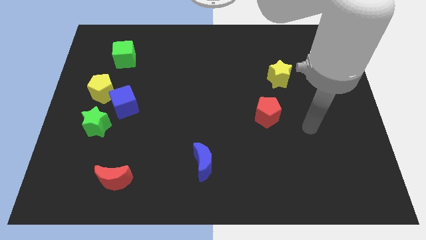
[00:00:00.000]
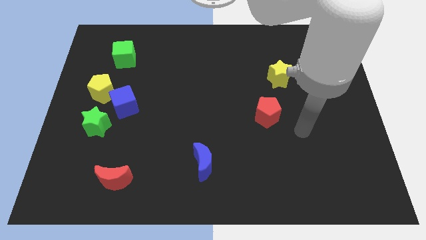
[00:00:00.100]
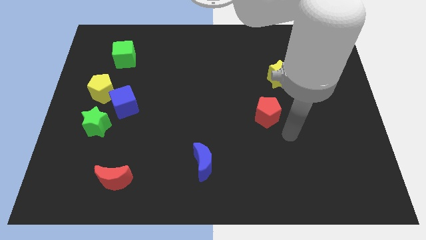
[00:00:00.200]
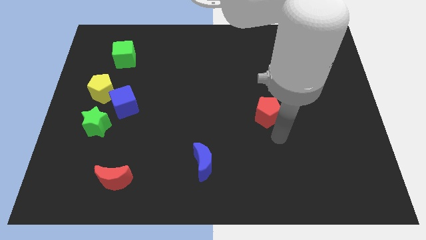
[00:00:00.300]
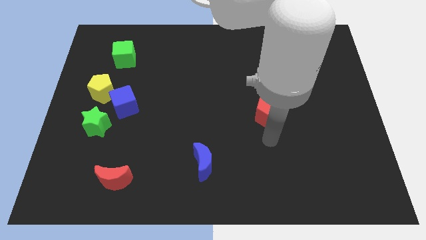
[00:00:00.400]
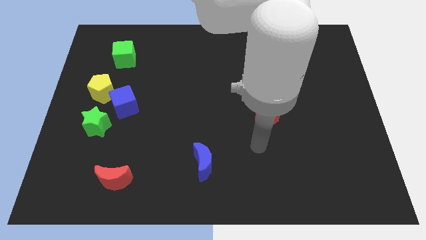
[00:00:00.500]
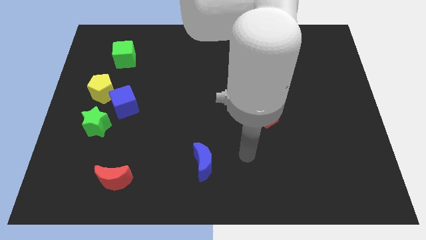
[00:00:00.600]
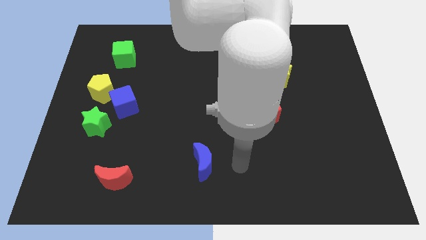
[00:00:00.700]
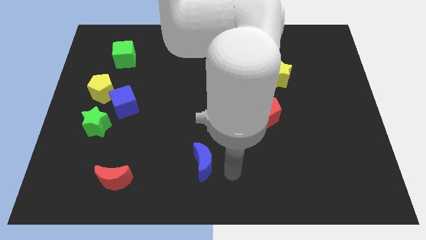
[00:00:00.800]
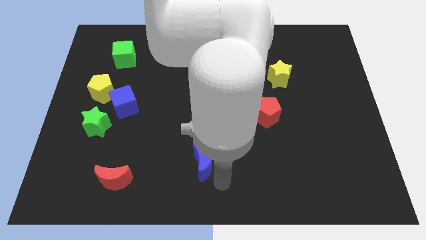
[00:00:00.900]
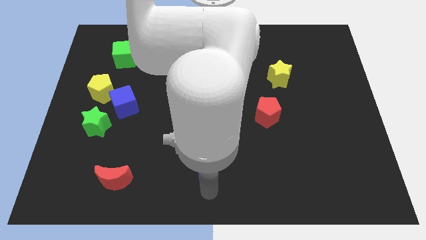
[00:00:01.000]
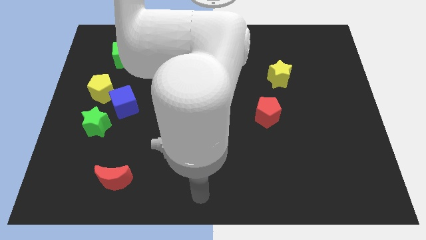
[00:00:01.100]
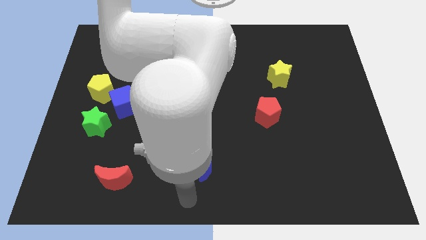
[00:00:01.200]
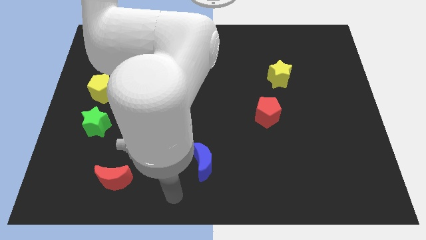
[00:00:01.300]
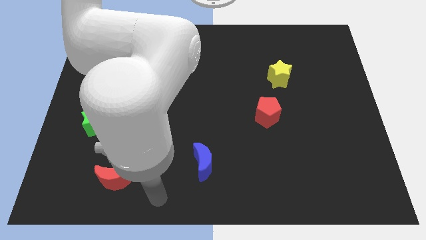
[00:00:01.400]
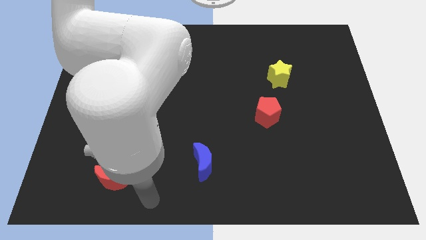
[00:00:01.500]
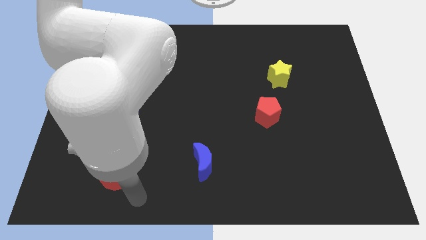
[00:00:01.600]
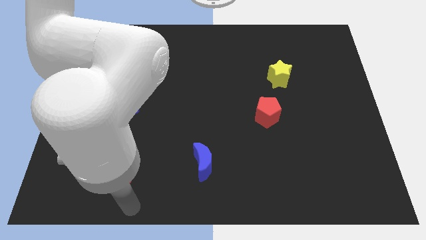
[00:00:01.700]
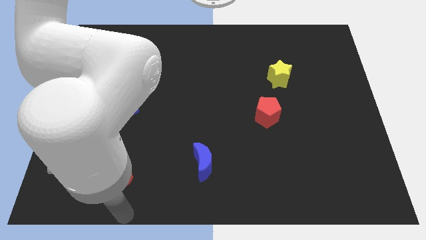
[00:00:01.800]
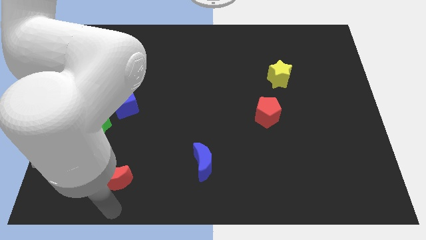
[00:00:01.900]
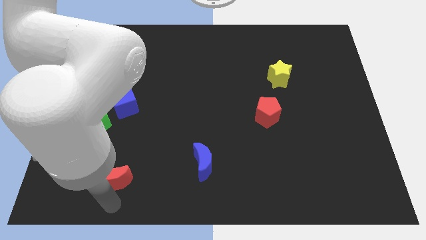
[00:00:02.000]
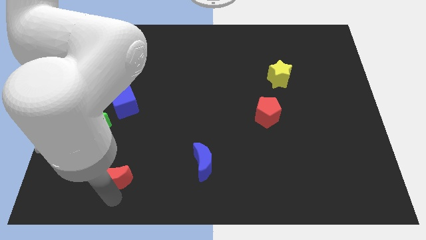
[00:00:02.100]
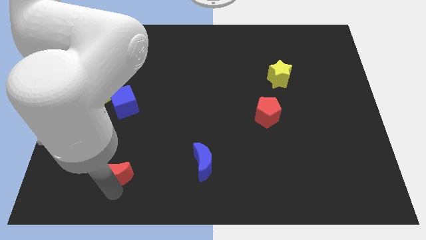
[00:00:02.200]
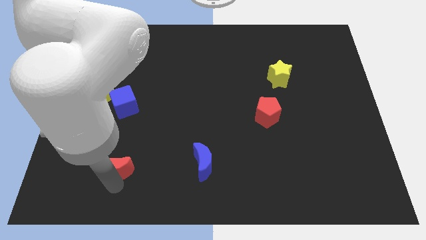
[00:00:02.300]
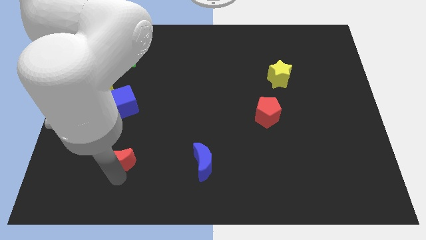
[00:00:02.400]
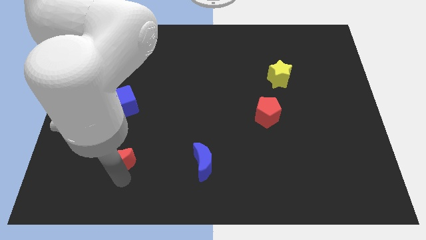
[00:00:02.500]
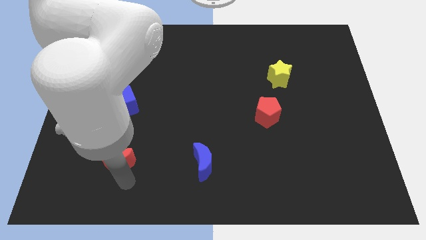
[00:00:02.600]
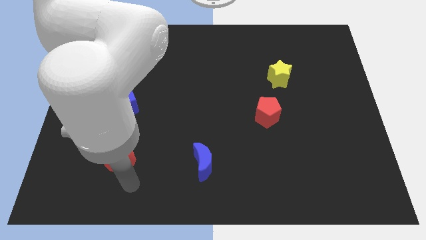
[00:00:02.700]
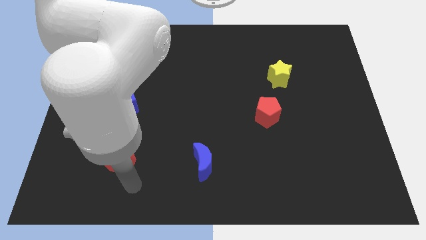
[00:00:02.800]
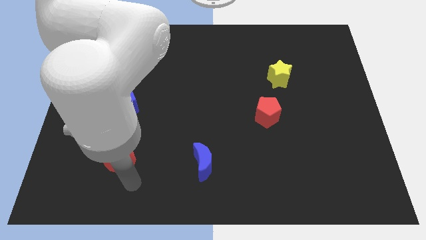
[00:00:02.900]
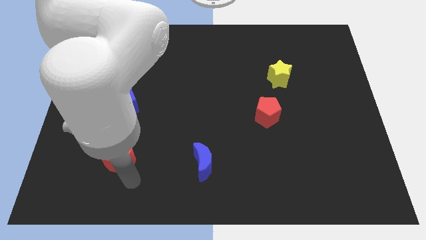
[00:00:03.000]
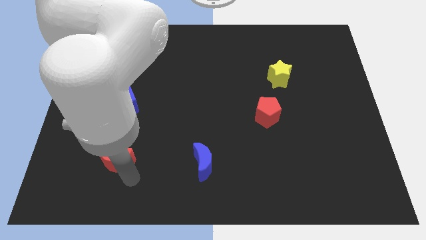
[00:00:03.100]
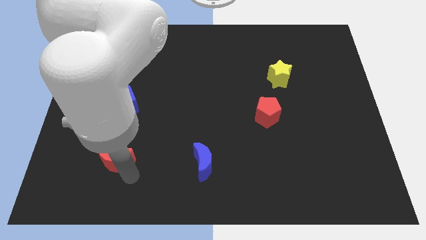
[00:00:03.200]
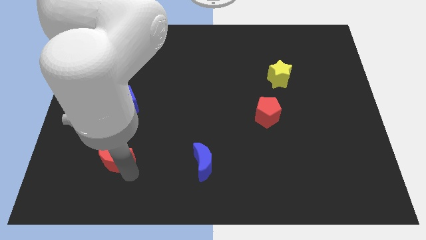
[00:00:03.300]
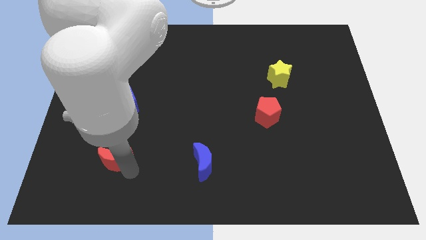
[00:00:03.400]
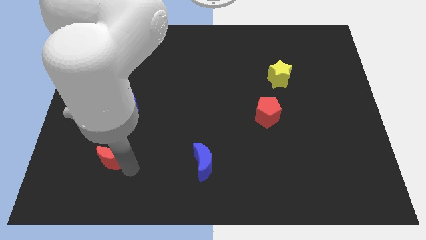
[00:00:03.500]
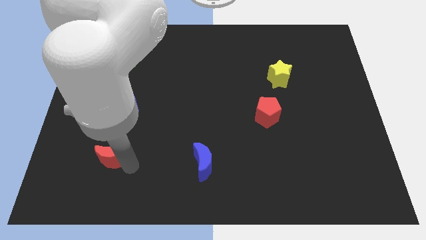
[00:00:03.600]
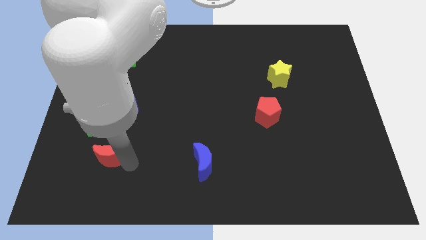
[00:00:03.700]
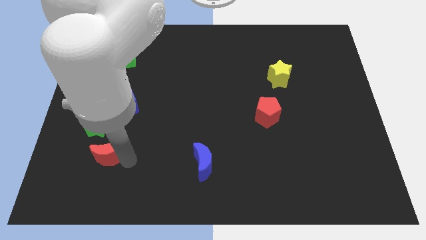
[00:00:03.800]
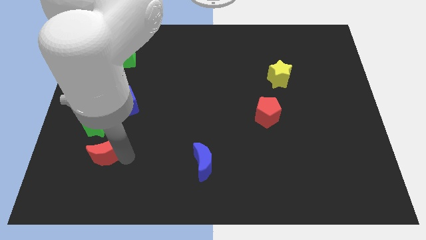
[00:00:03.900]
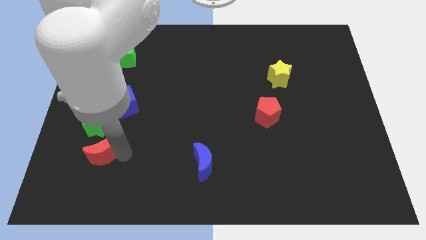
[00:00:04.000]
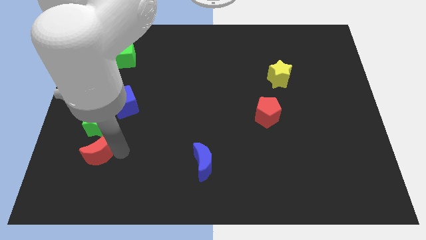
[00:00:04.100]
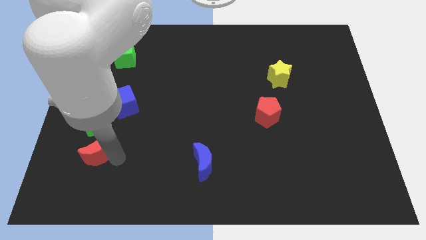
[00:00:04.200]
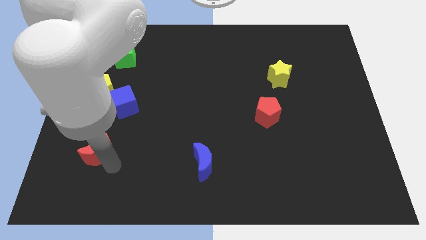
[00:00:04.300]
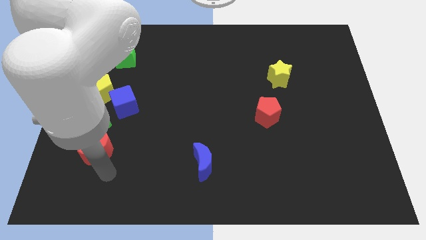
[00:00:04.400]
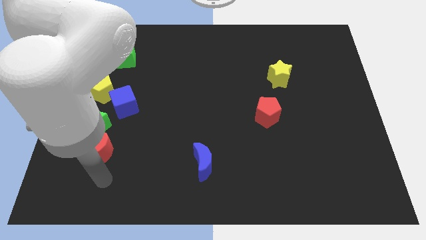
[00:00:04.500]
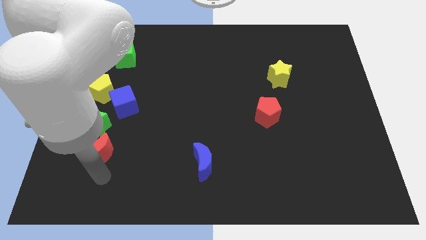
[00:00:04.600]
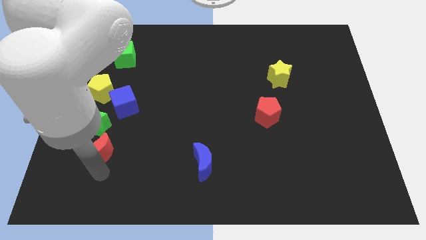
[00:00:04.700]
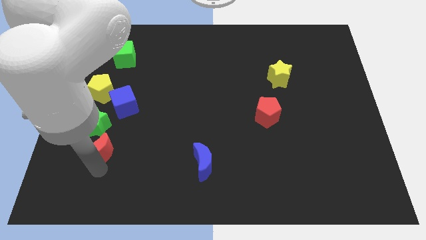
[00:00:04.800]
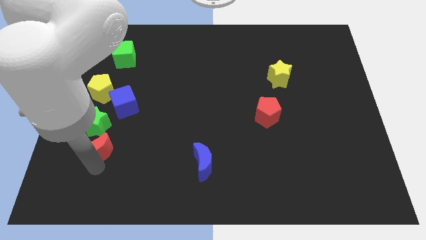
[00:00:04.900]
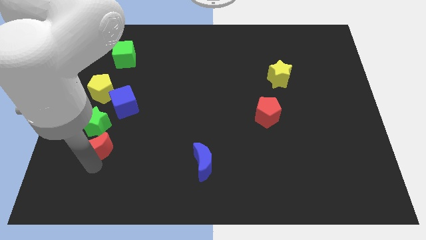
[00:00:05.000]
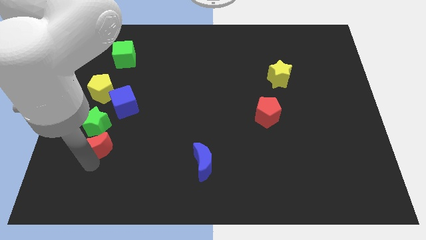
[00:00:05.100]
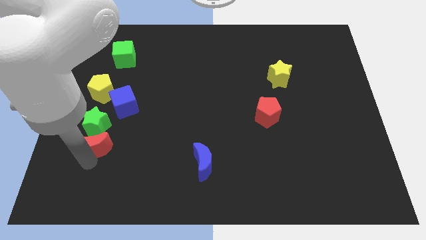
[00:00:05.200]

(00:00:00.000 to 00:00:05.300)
slide the red moon next to the green star

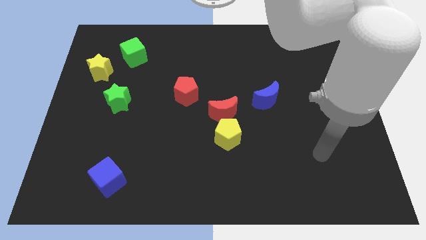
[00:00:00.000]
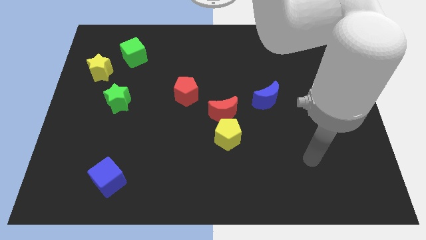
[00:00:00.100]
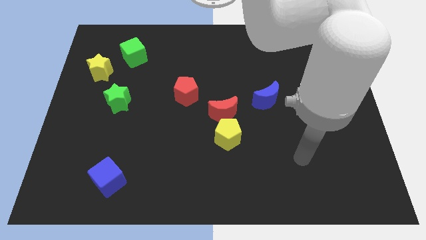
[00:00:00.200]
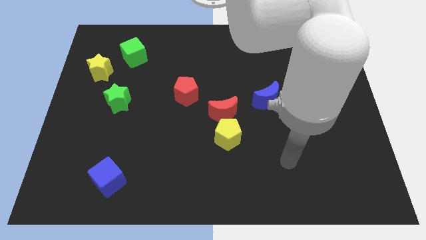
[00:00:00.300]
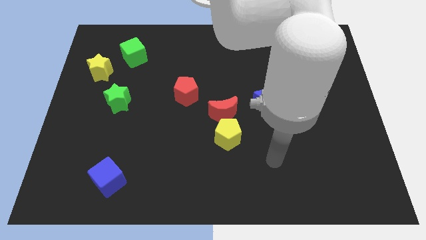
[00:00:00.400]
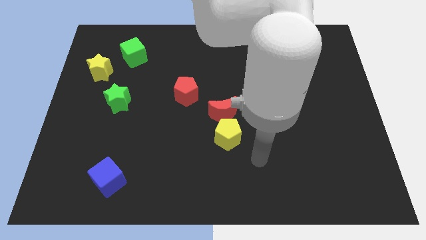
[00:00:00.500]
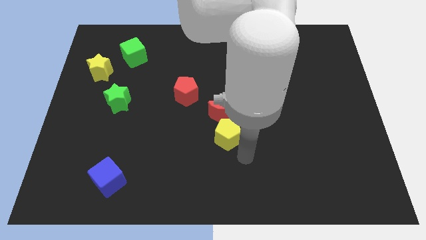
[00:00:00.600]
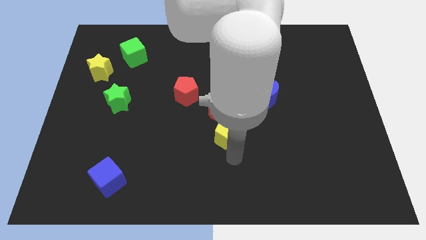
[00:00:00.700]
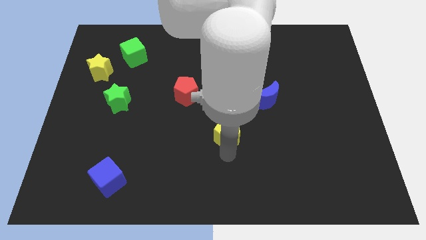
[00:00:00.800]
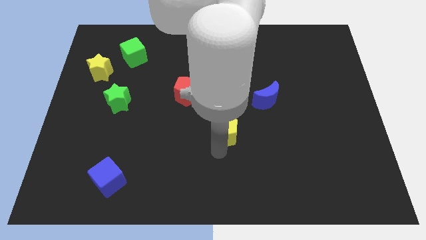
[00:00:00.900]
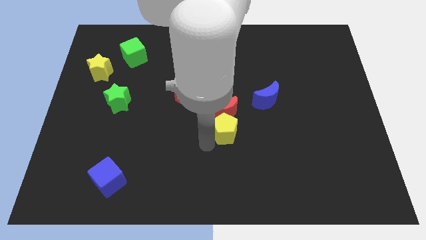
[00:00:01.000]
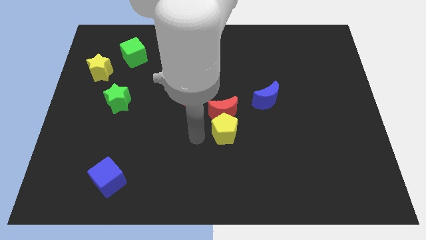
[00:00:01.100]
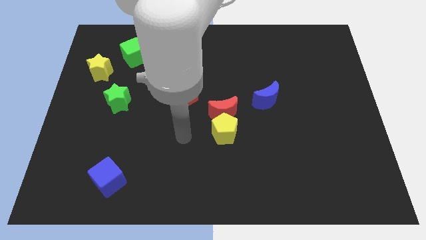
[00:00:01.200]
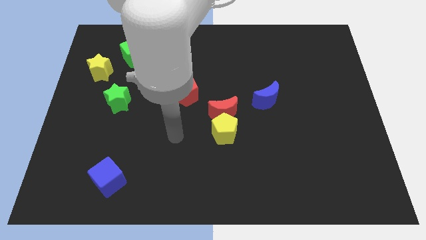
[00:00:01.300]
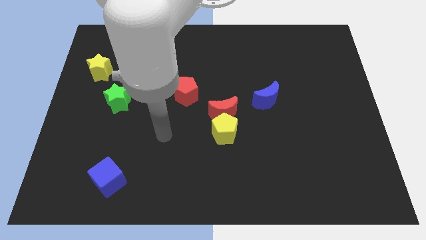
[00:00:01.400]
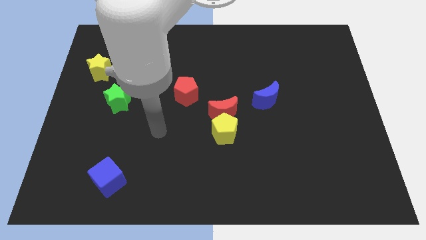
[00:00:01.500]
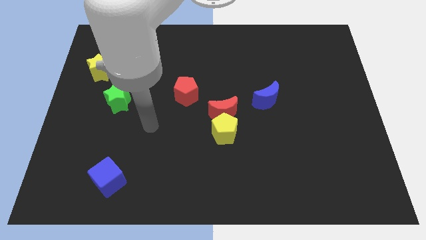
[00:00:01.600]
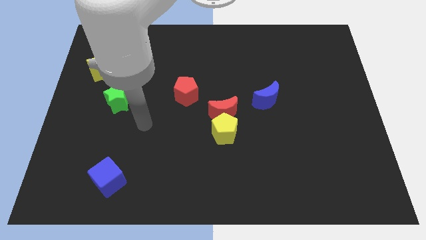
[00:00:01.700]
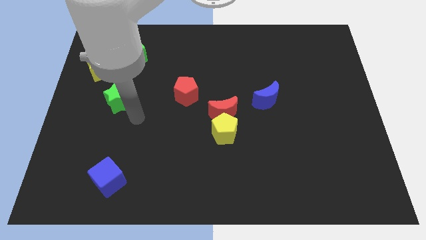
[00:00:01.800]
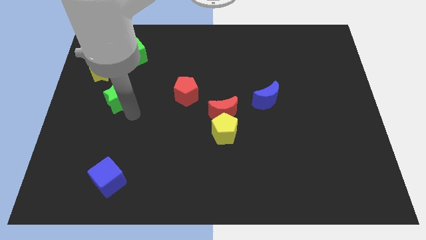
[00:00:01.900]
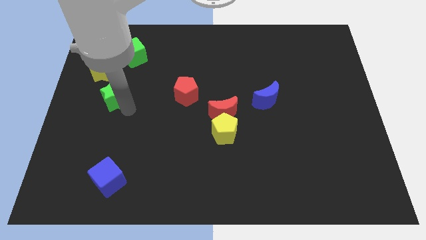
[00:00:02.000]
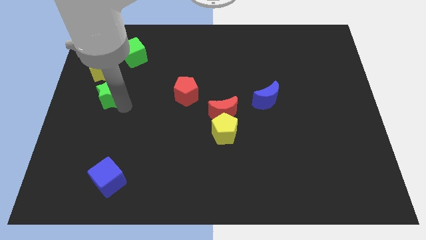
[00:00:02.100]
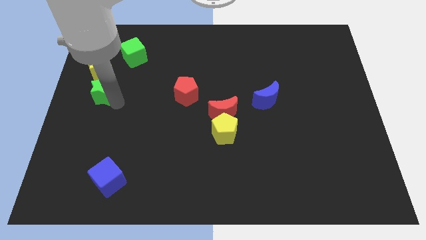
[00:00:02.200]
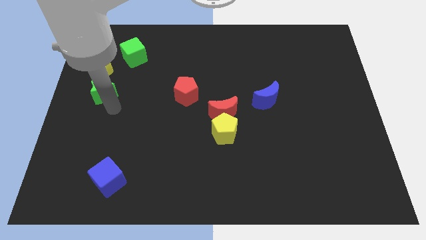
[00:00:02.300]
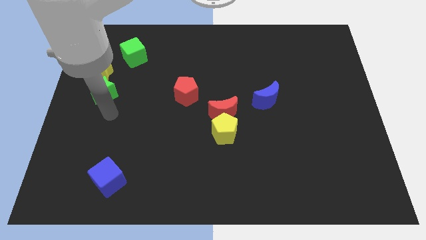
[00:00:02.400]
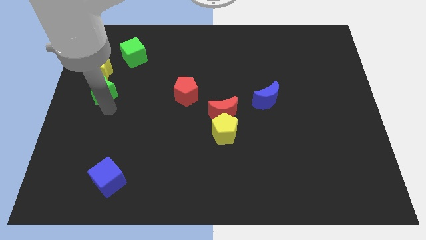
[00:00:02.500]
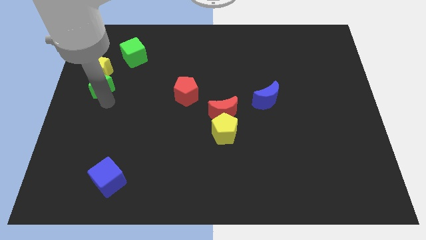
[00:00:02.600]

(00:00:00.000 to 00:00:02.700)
put the green star to the yellow star
